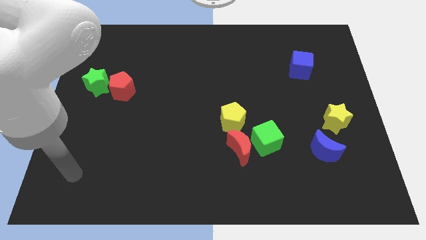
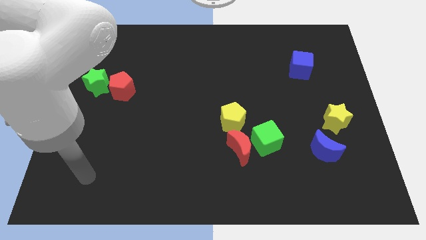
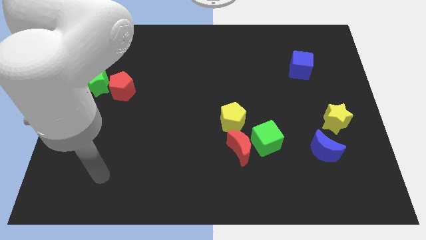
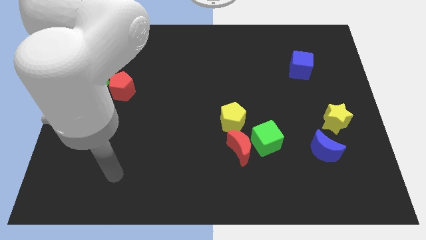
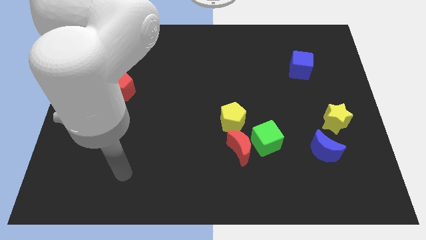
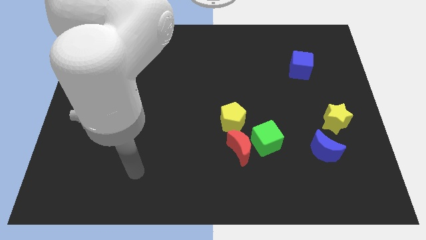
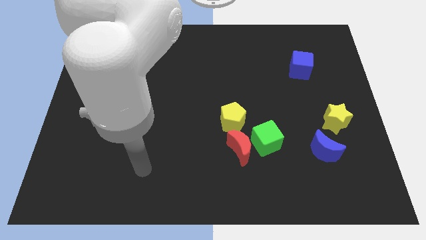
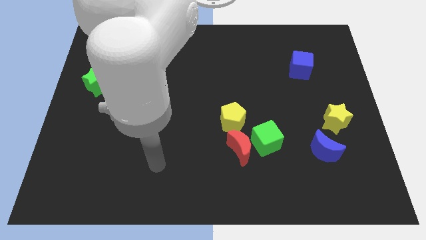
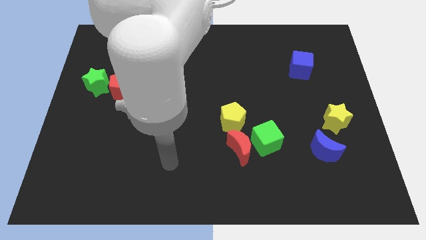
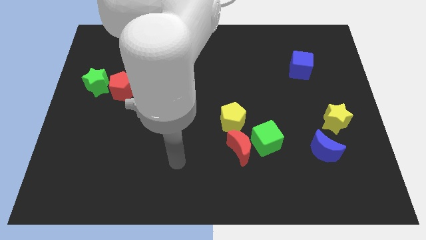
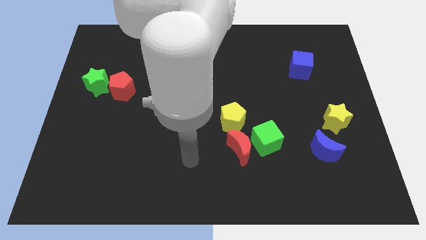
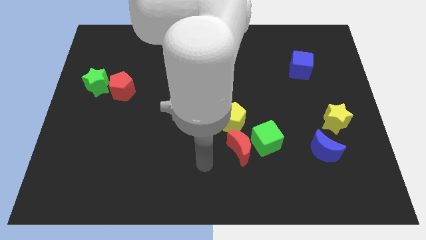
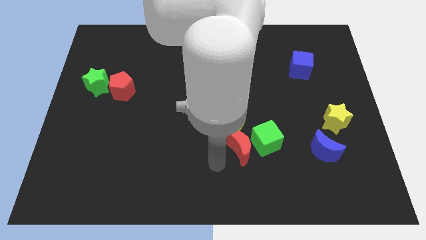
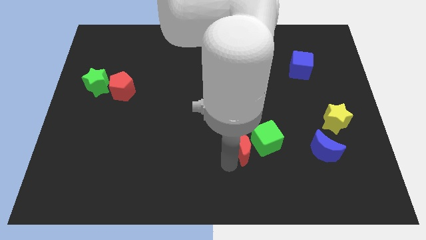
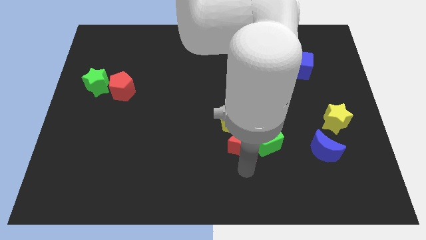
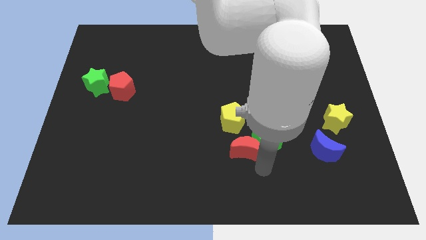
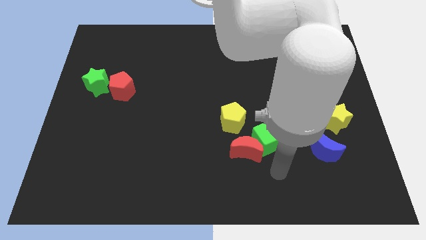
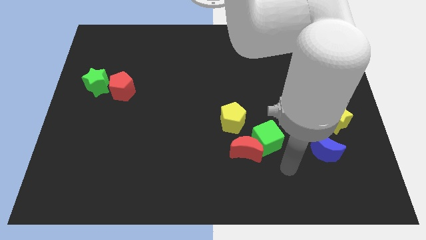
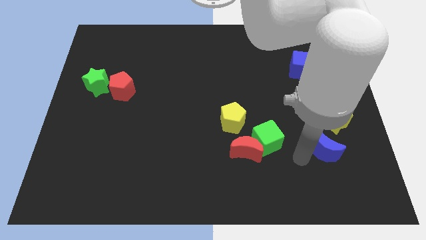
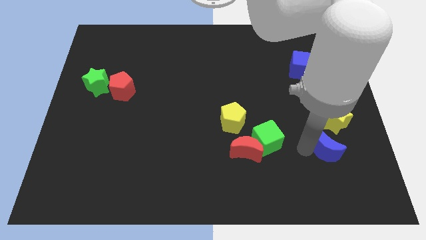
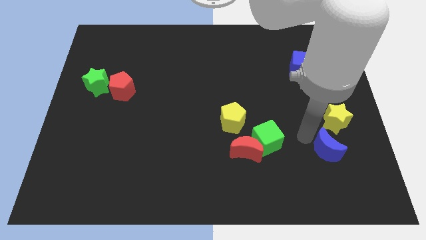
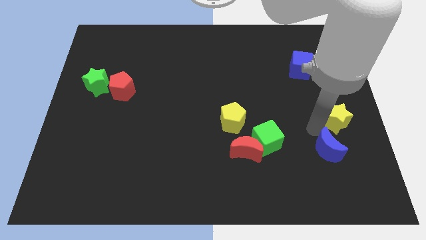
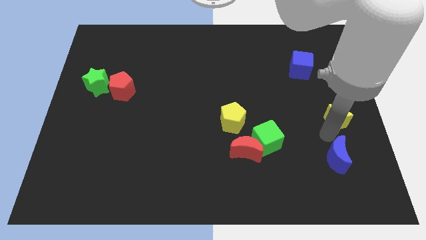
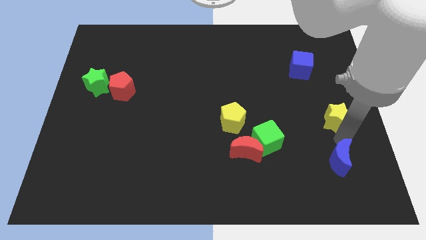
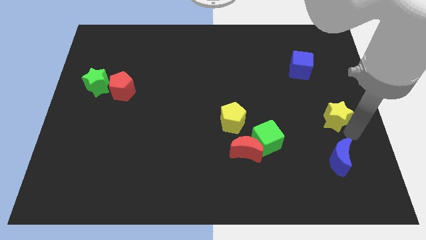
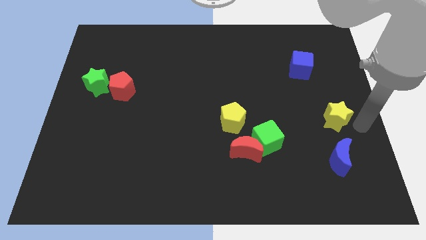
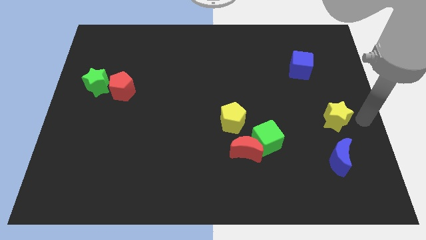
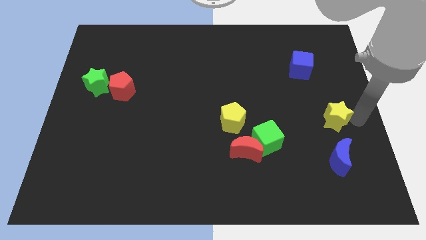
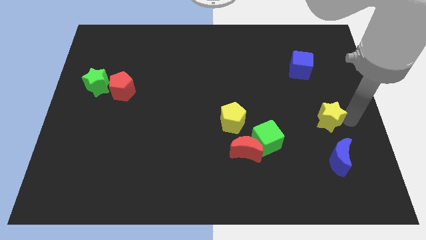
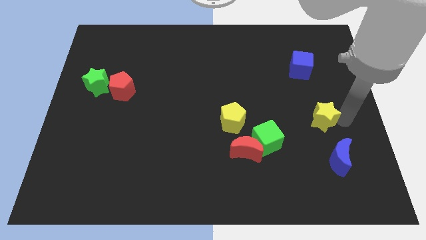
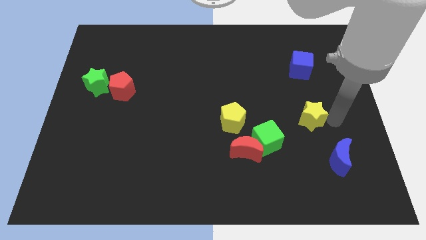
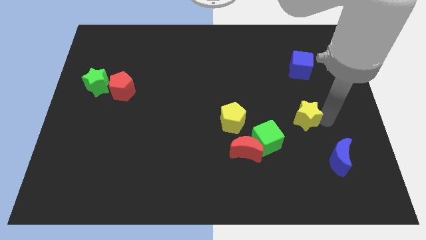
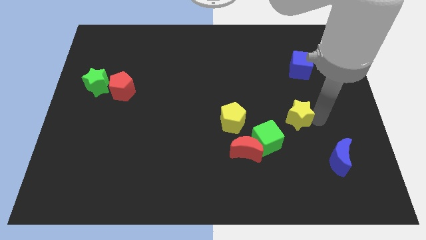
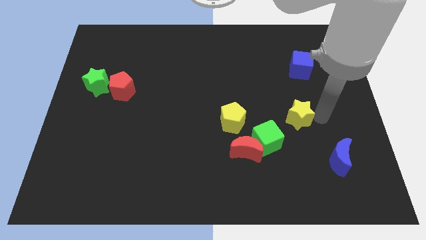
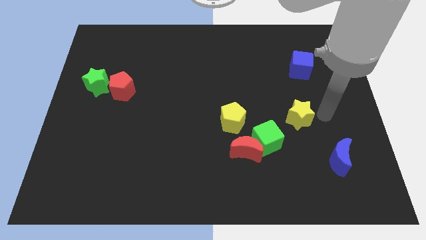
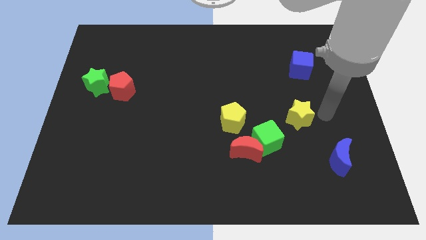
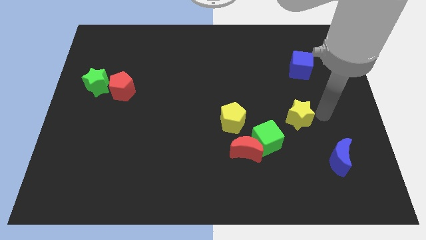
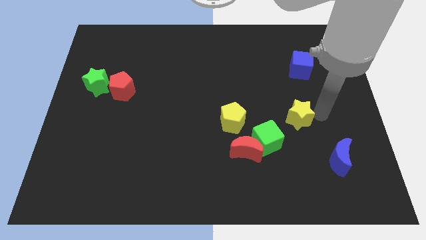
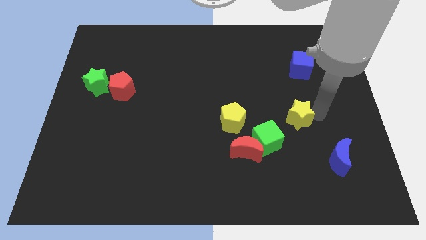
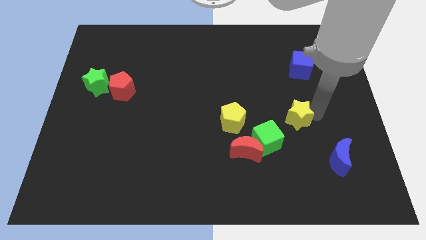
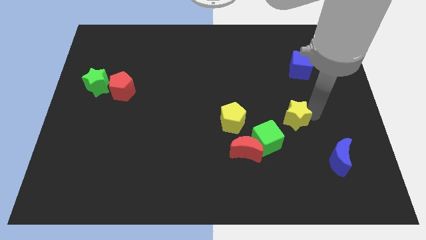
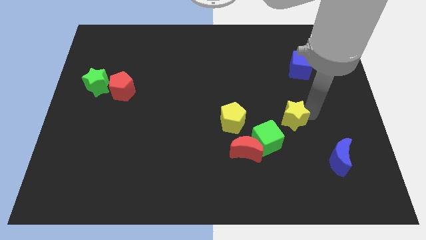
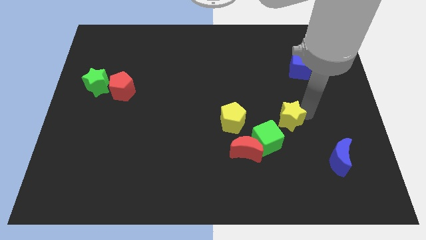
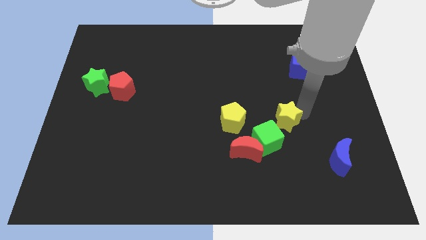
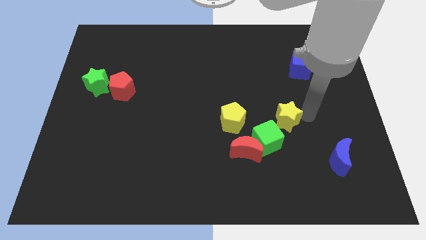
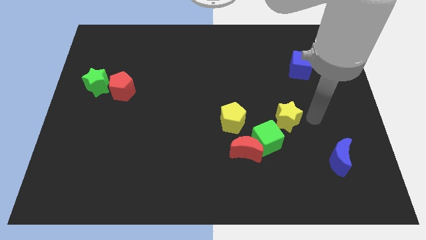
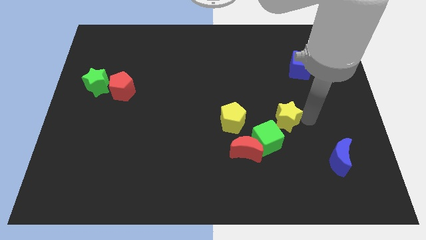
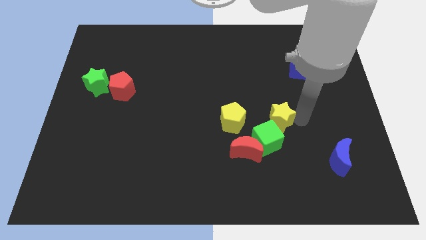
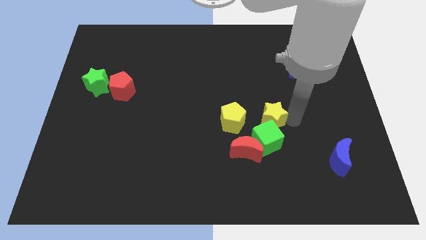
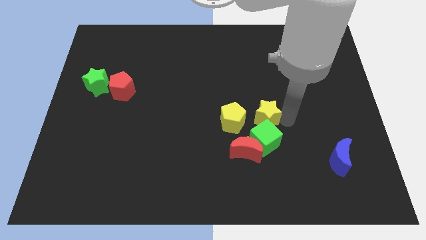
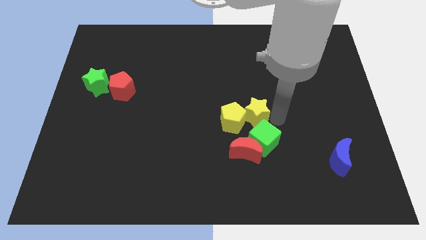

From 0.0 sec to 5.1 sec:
slide the yellow star towards the yellow pentagon

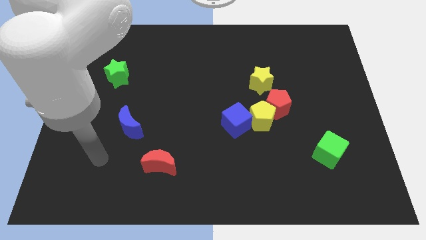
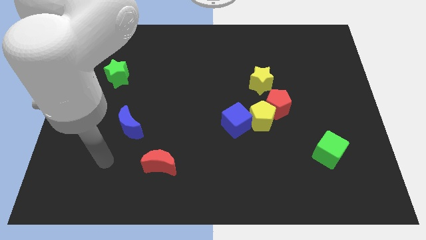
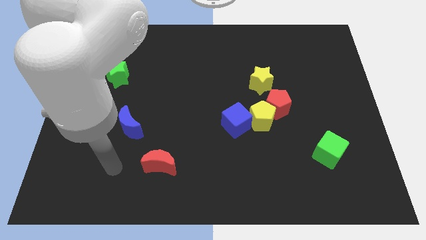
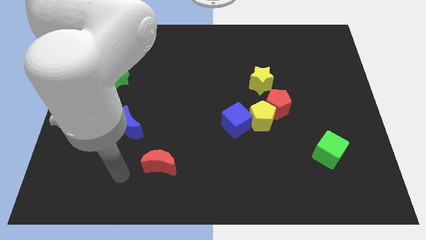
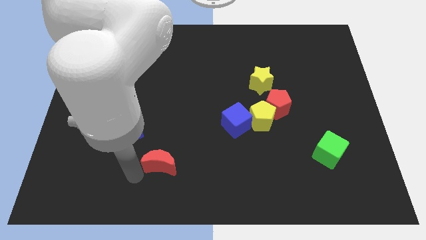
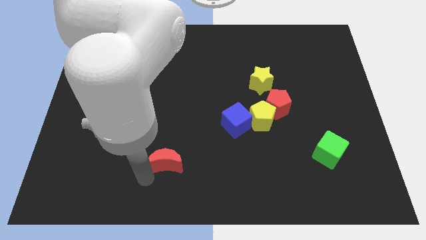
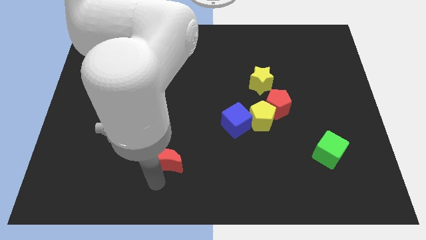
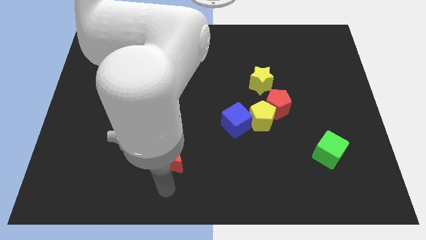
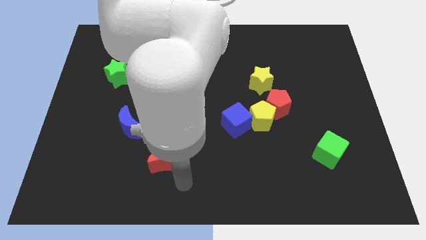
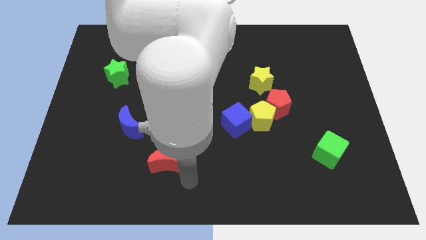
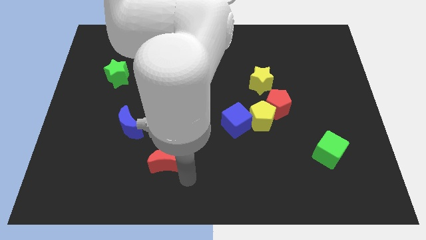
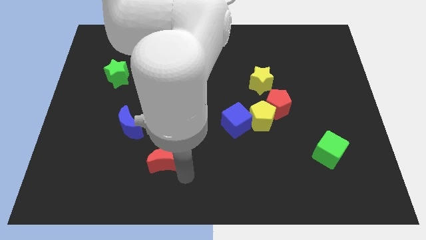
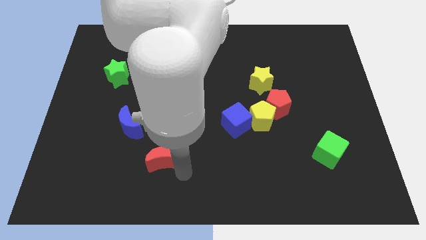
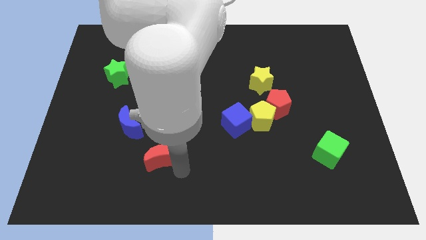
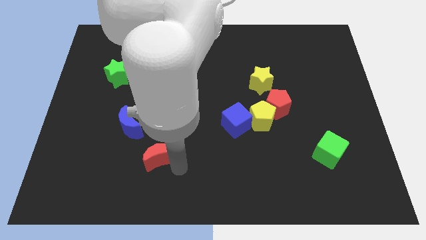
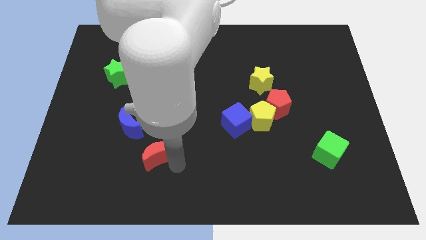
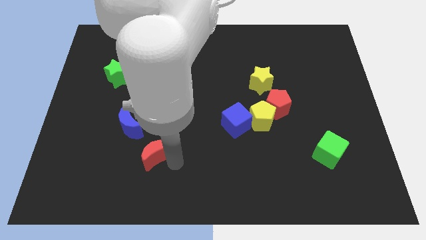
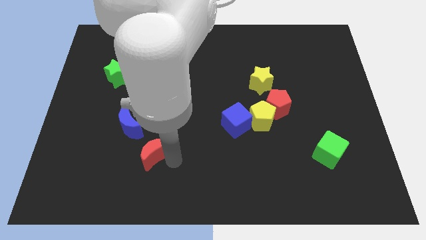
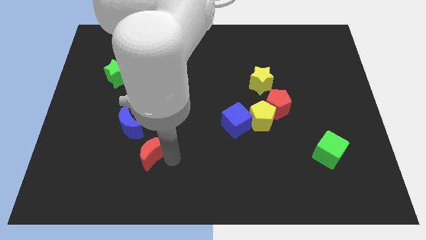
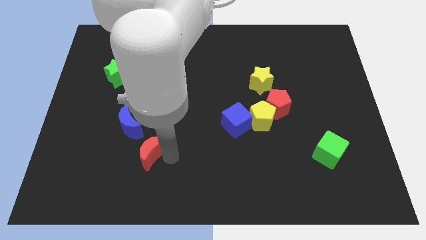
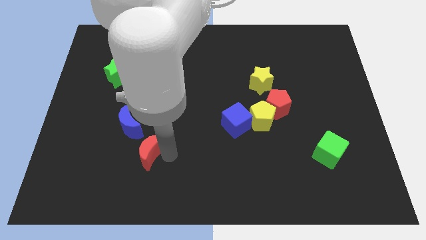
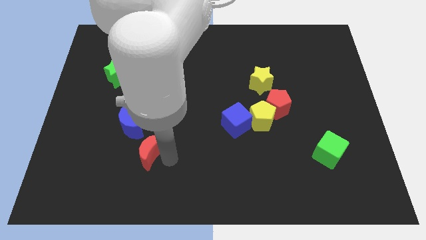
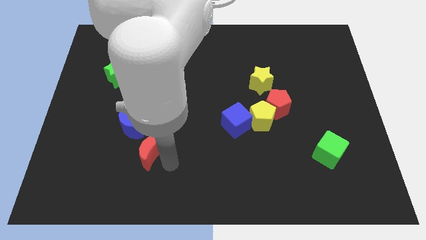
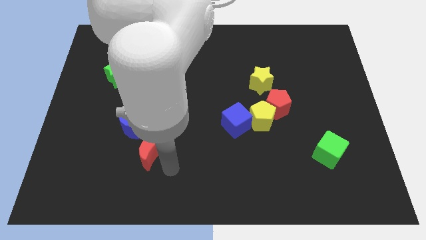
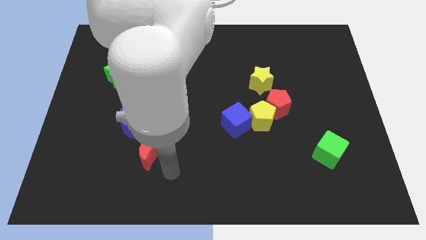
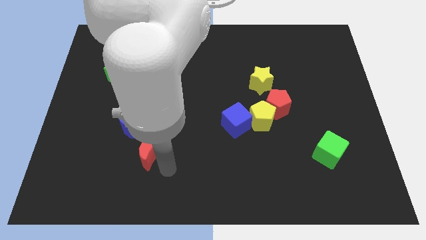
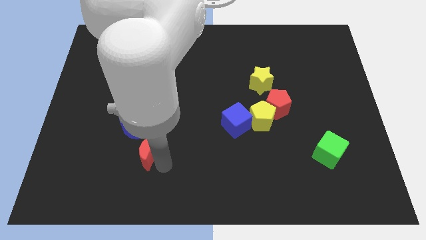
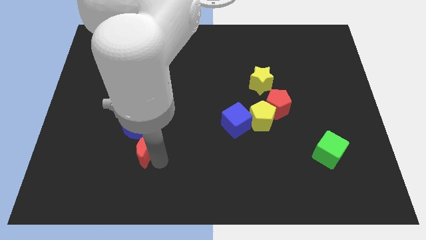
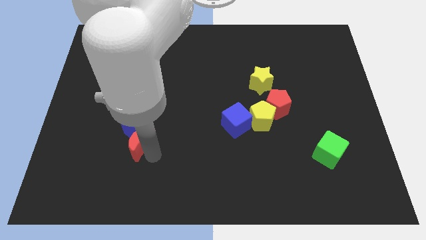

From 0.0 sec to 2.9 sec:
move the red moon towards the blue moon
